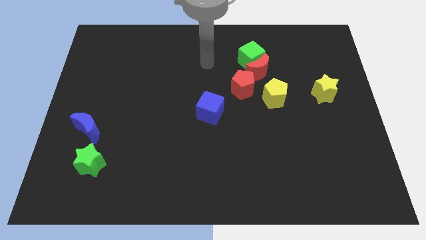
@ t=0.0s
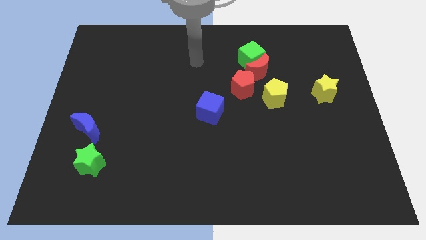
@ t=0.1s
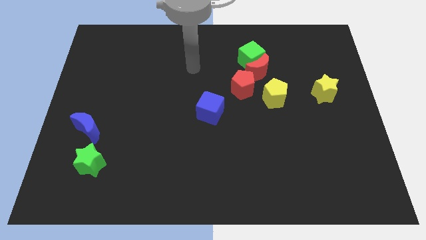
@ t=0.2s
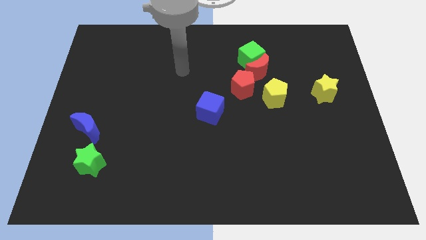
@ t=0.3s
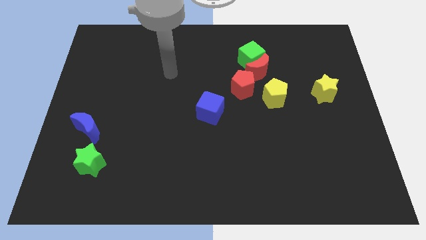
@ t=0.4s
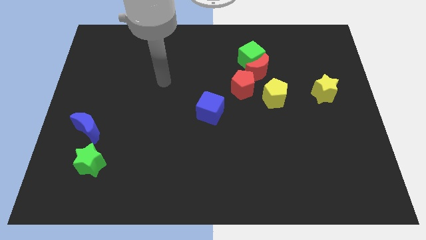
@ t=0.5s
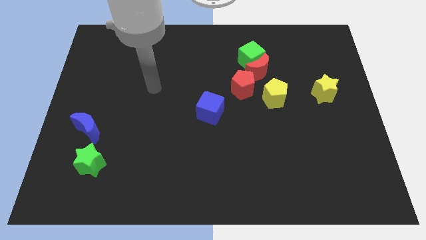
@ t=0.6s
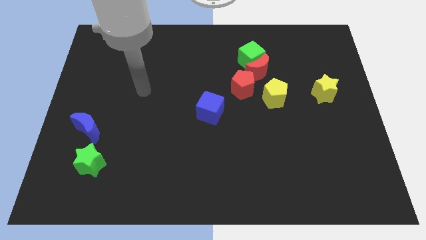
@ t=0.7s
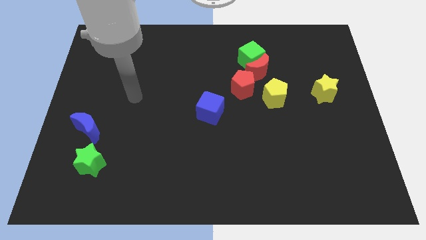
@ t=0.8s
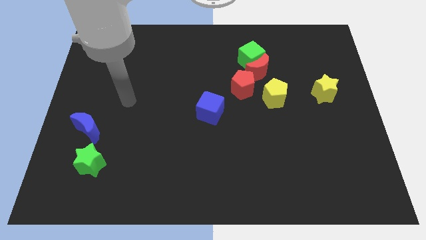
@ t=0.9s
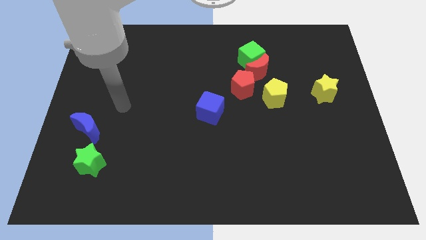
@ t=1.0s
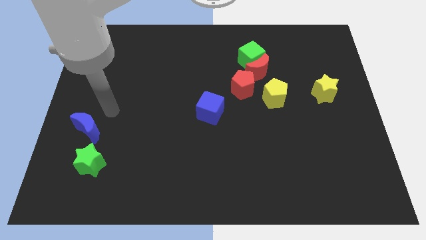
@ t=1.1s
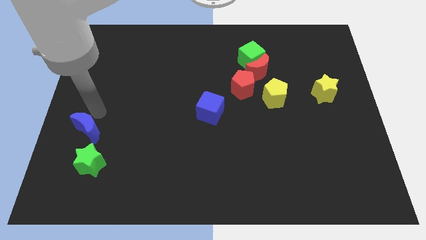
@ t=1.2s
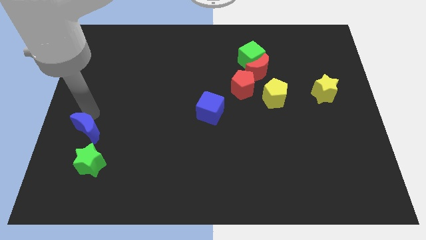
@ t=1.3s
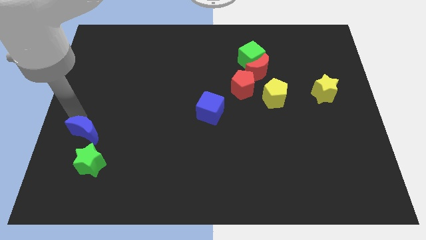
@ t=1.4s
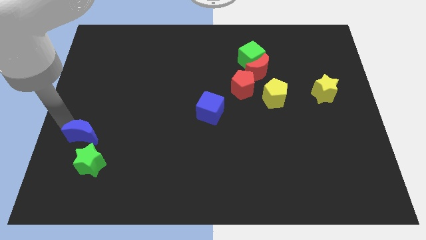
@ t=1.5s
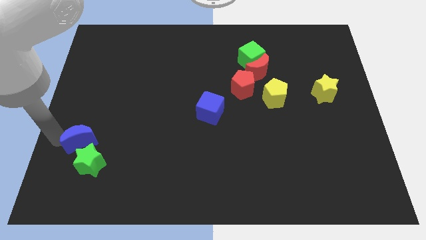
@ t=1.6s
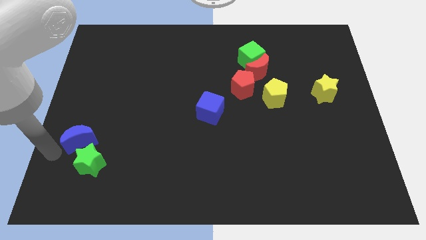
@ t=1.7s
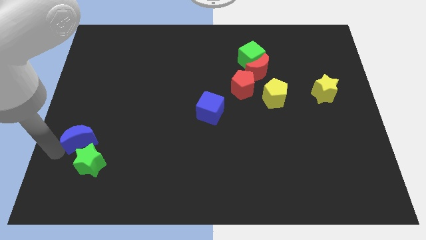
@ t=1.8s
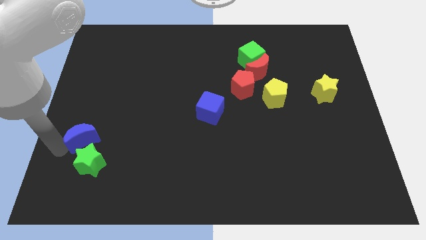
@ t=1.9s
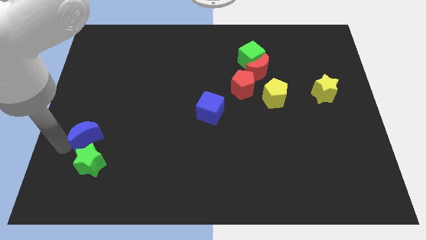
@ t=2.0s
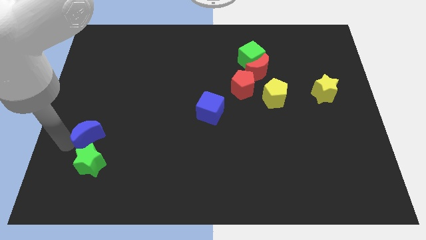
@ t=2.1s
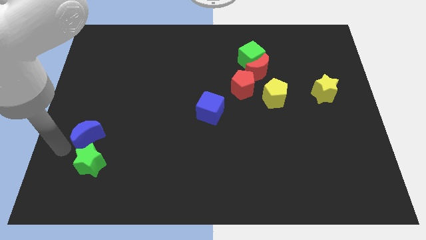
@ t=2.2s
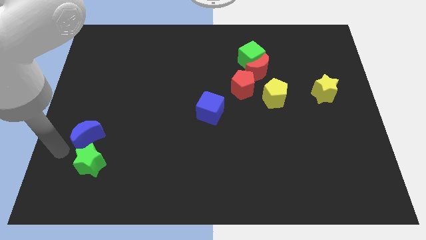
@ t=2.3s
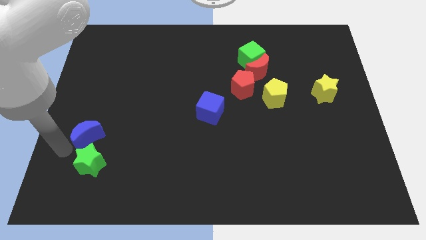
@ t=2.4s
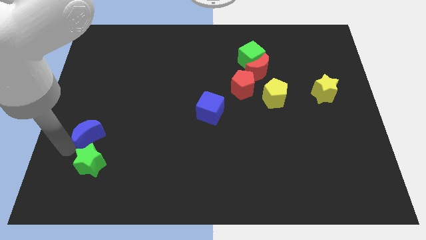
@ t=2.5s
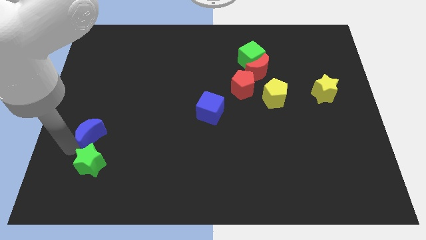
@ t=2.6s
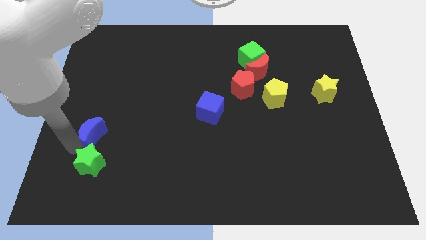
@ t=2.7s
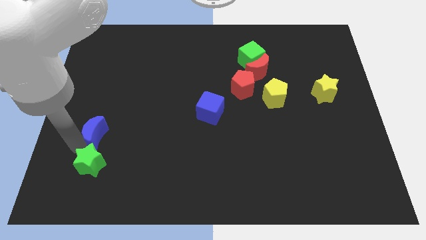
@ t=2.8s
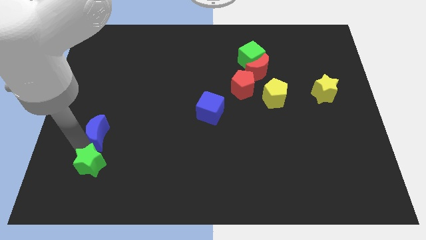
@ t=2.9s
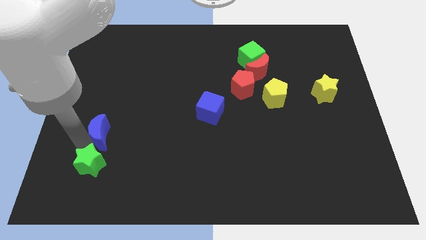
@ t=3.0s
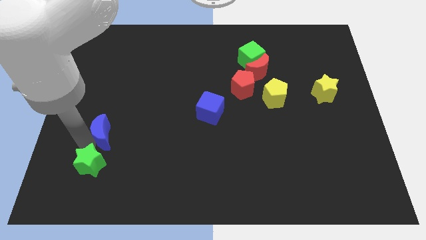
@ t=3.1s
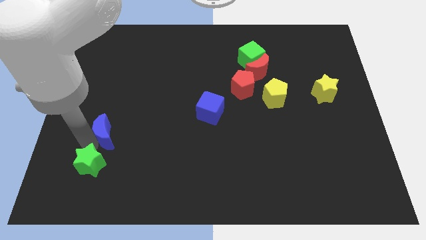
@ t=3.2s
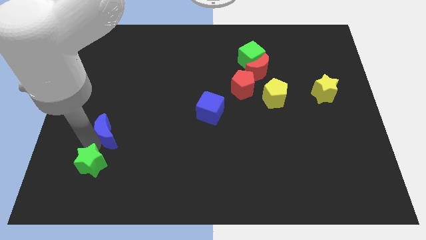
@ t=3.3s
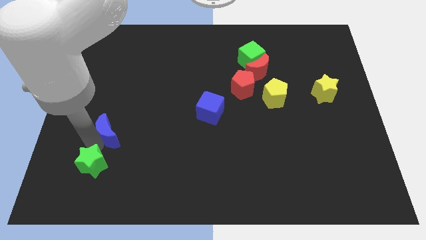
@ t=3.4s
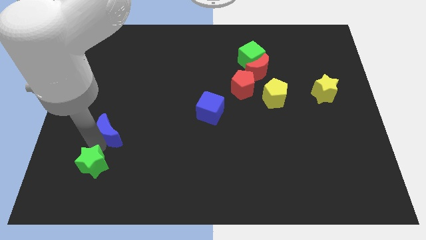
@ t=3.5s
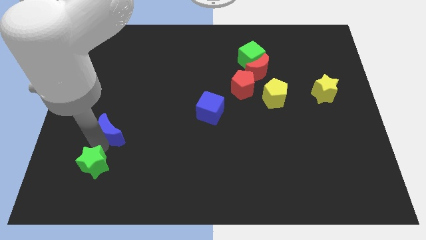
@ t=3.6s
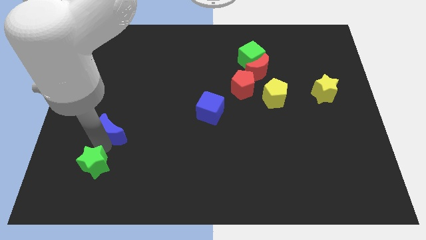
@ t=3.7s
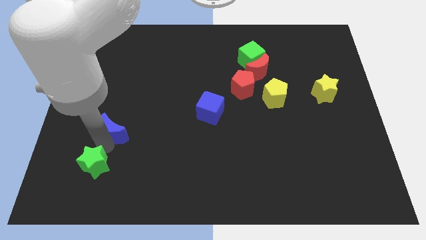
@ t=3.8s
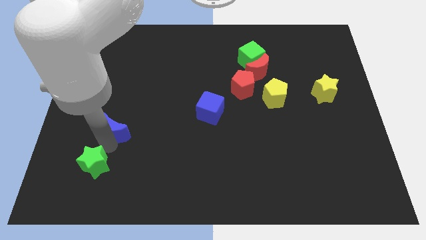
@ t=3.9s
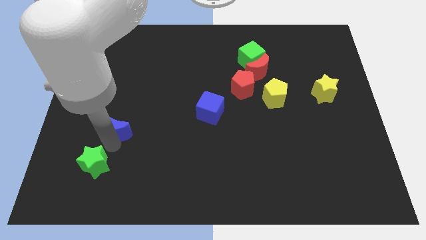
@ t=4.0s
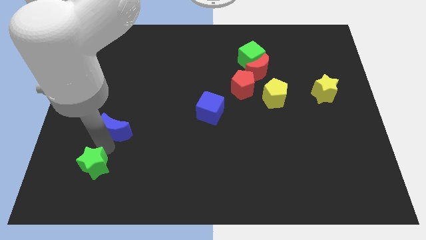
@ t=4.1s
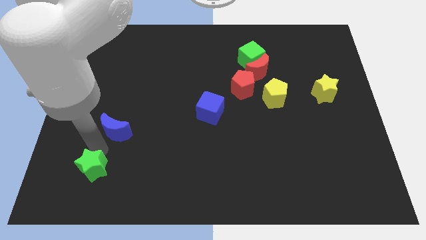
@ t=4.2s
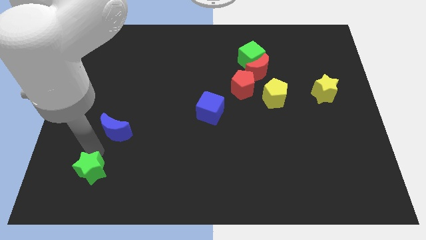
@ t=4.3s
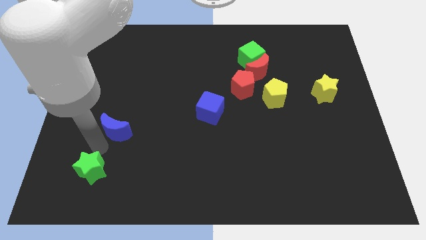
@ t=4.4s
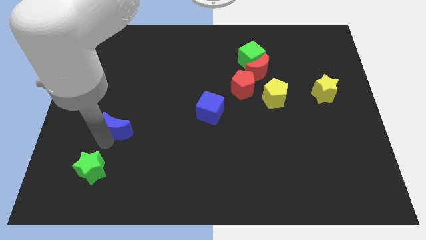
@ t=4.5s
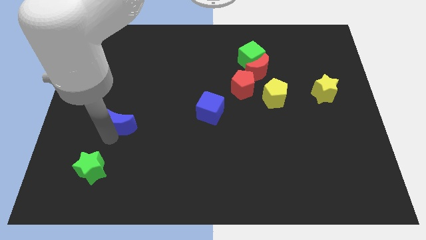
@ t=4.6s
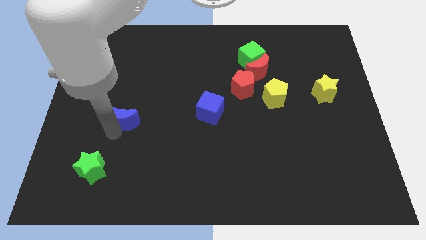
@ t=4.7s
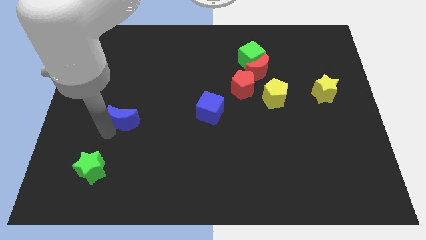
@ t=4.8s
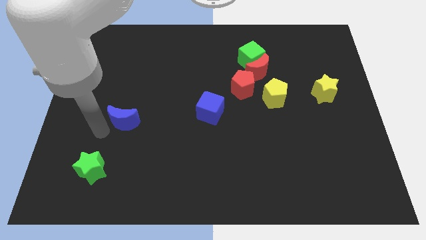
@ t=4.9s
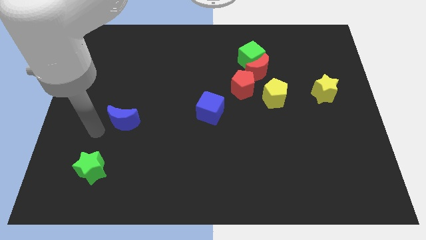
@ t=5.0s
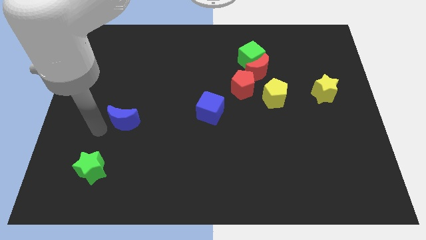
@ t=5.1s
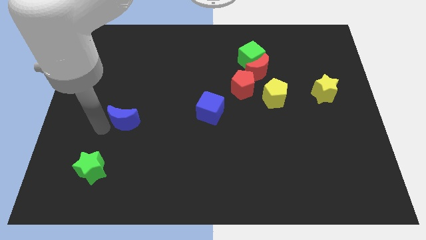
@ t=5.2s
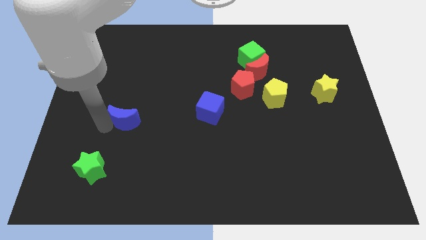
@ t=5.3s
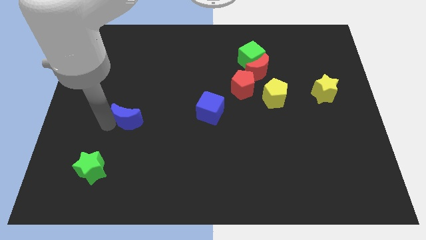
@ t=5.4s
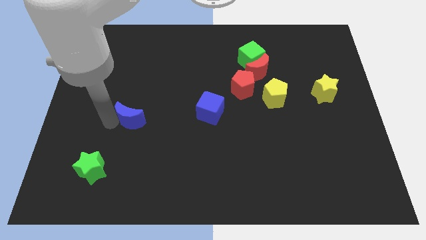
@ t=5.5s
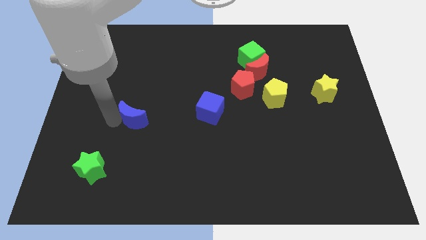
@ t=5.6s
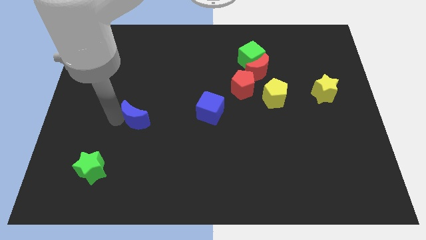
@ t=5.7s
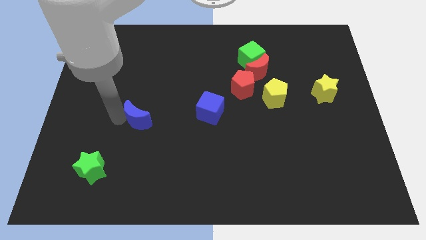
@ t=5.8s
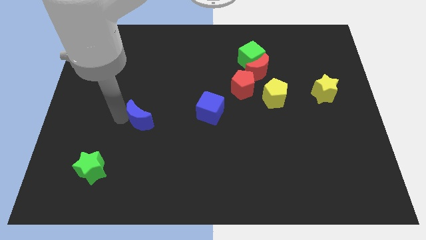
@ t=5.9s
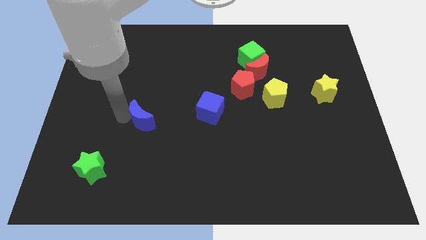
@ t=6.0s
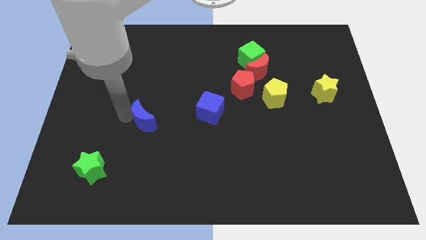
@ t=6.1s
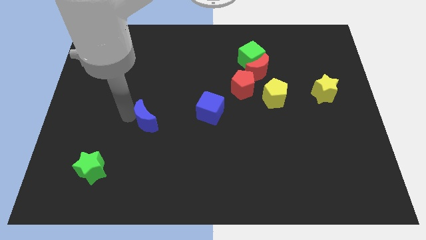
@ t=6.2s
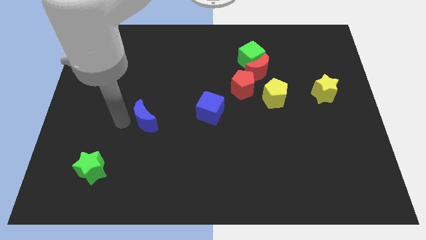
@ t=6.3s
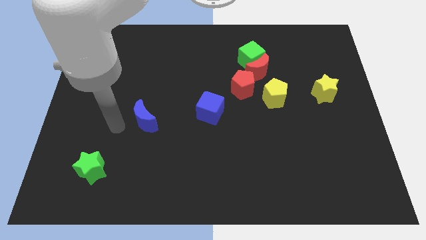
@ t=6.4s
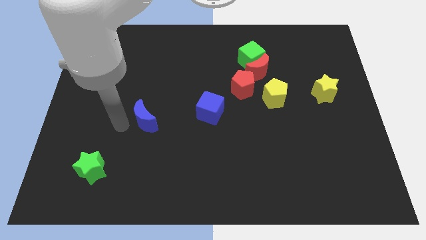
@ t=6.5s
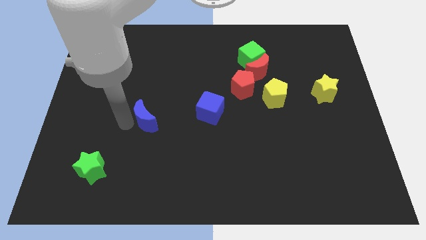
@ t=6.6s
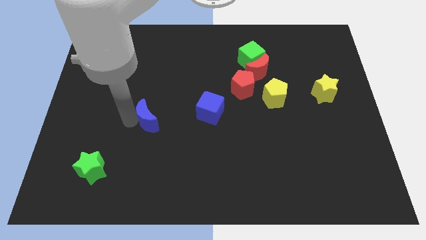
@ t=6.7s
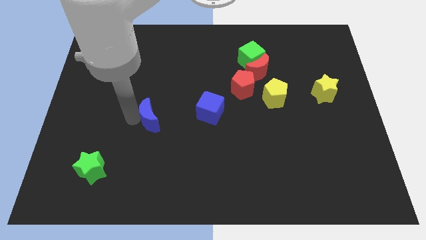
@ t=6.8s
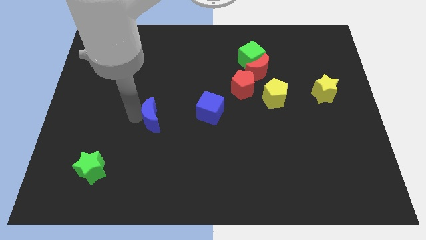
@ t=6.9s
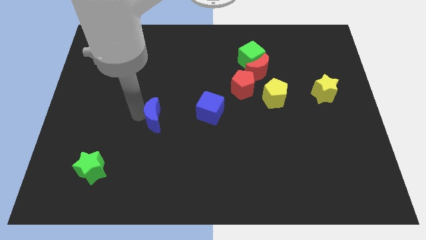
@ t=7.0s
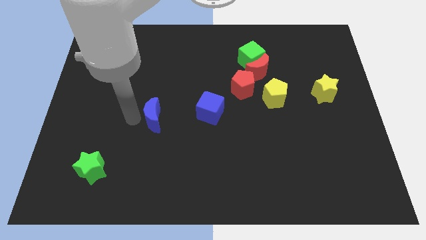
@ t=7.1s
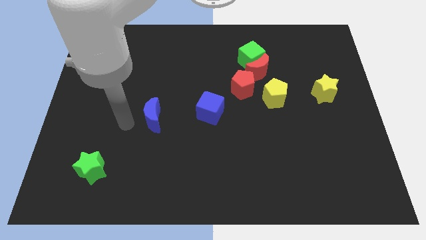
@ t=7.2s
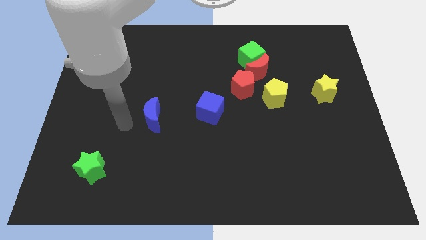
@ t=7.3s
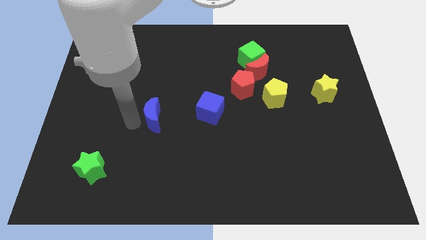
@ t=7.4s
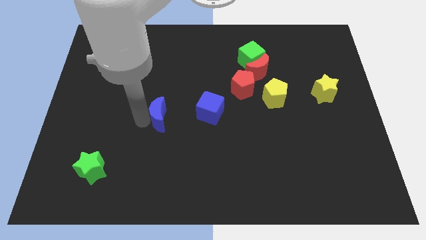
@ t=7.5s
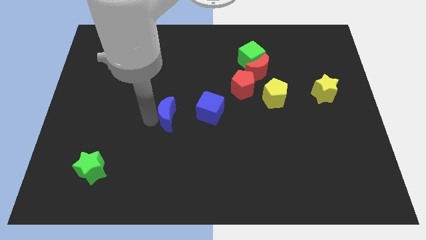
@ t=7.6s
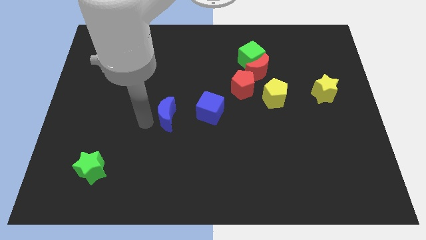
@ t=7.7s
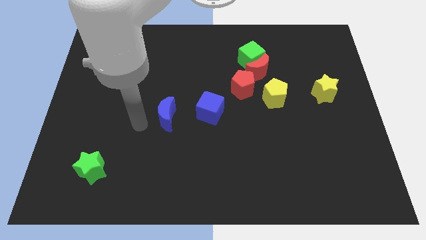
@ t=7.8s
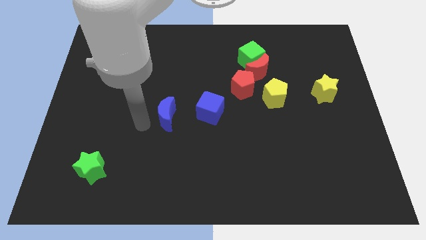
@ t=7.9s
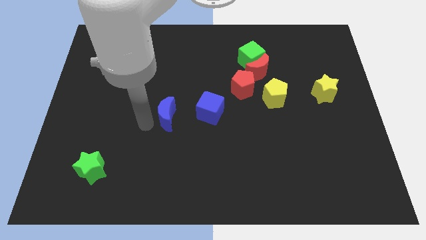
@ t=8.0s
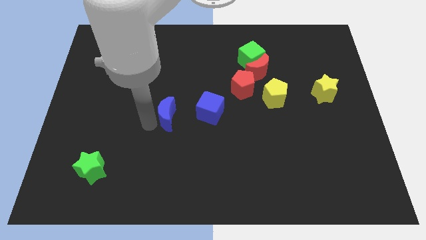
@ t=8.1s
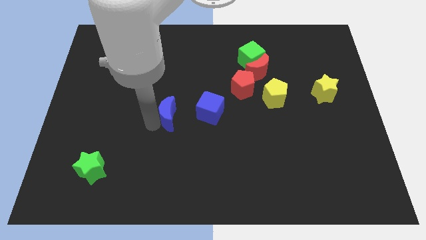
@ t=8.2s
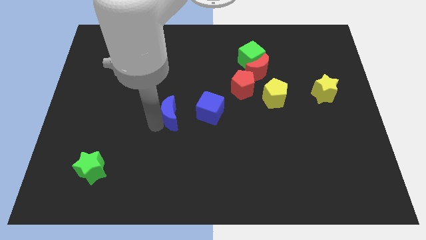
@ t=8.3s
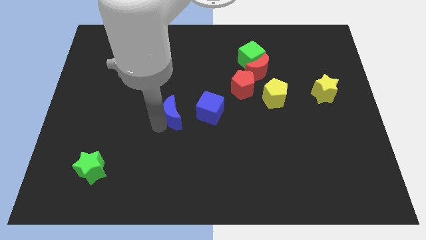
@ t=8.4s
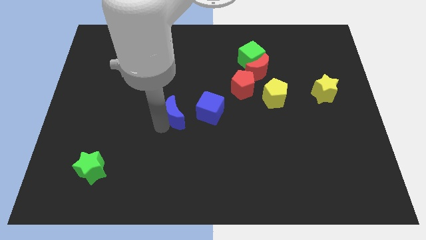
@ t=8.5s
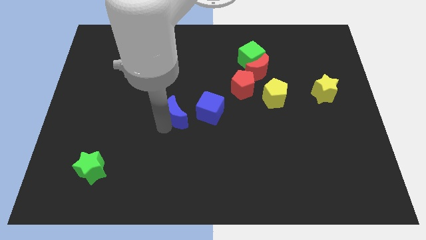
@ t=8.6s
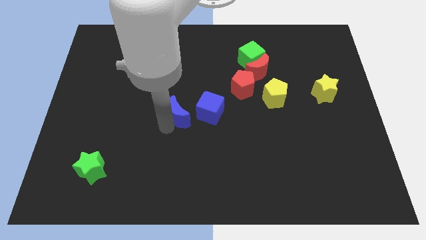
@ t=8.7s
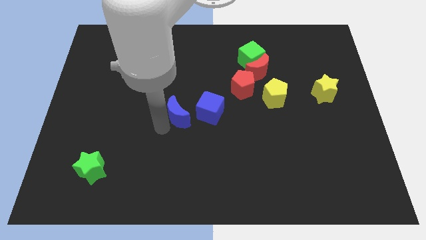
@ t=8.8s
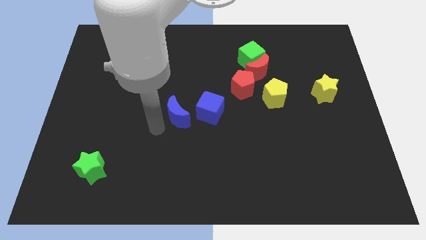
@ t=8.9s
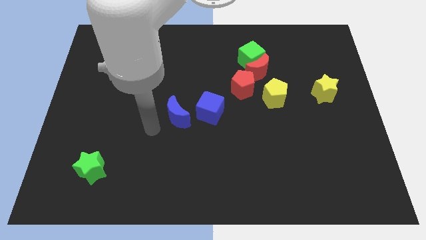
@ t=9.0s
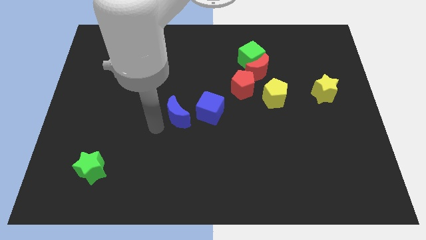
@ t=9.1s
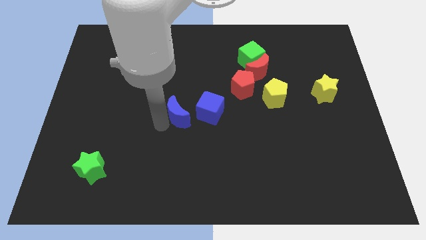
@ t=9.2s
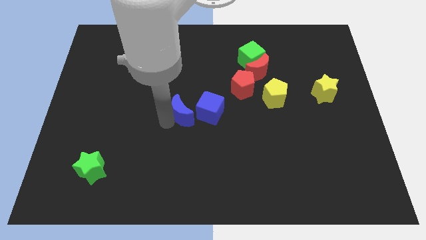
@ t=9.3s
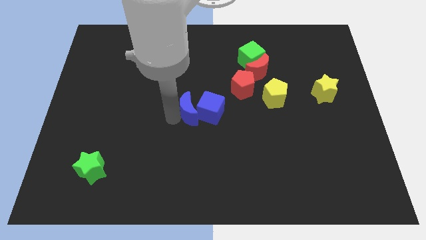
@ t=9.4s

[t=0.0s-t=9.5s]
slide the blue moon next to the blue cube
